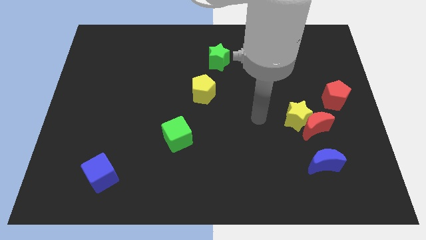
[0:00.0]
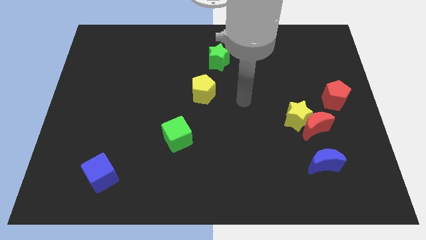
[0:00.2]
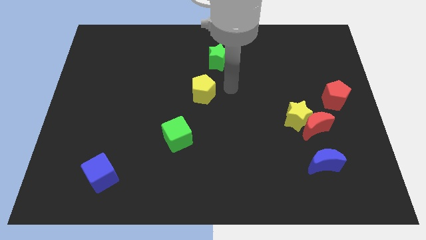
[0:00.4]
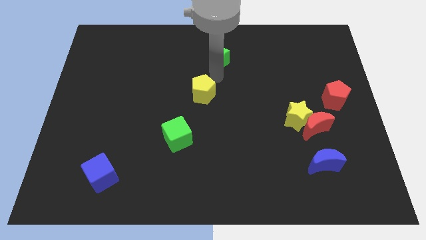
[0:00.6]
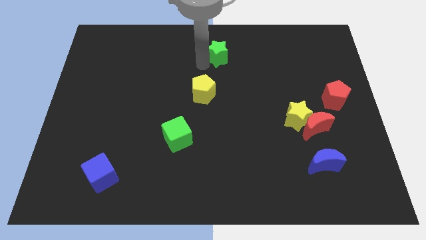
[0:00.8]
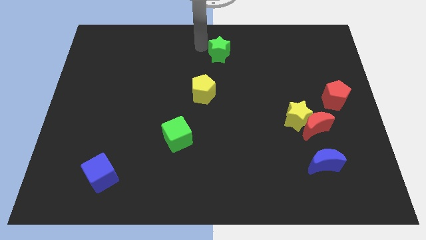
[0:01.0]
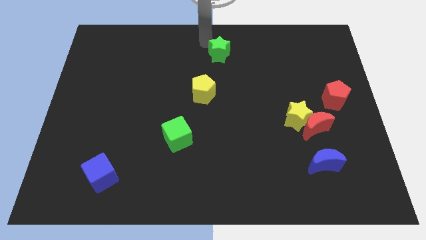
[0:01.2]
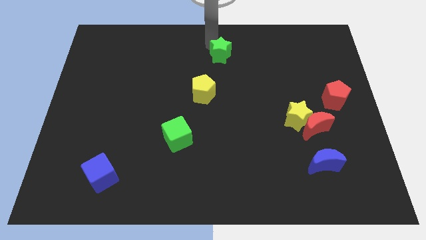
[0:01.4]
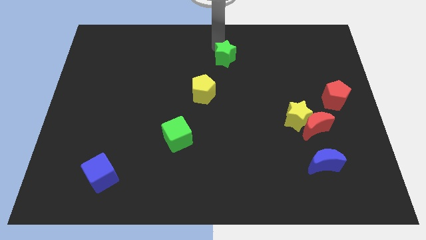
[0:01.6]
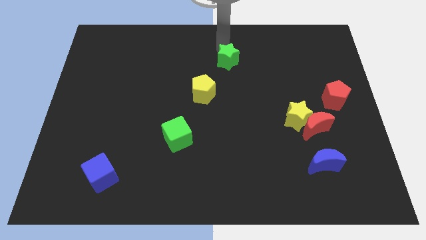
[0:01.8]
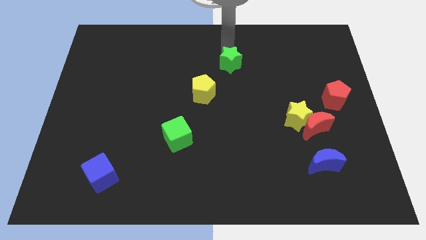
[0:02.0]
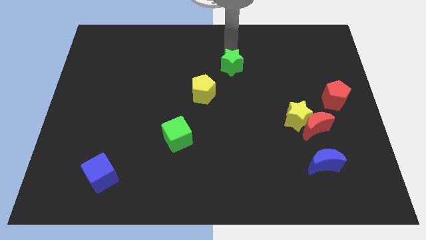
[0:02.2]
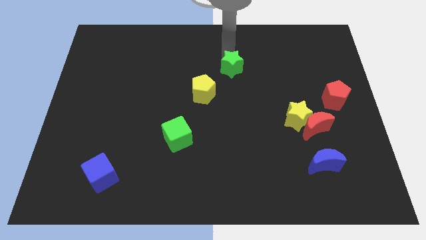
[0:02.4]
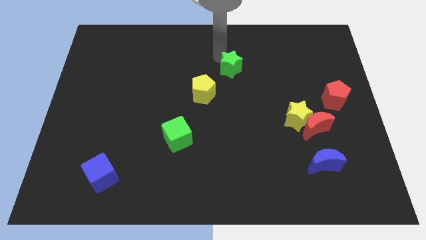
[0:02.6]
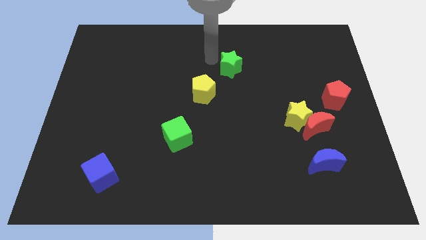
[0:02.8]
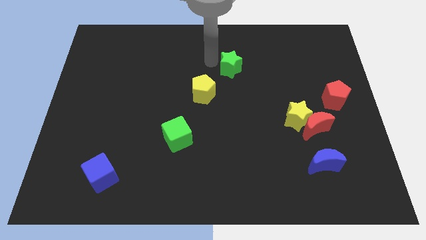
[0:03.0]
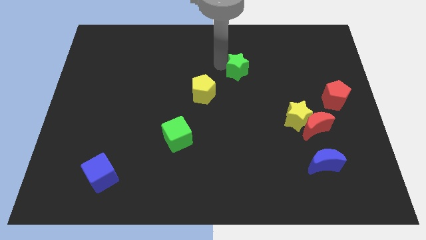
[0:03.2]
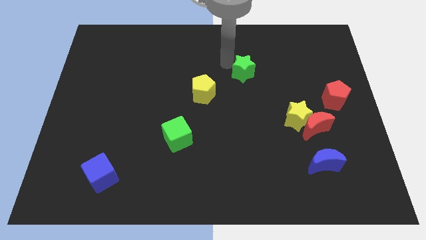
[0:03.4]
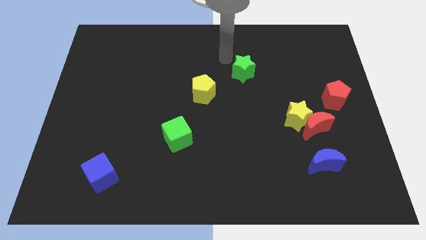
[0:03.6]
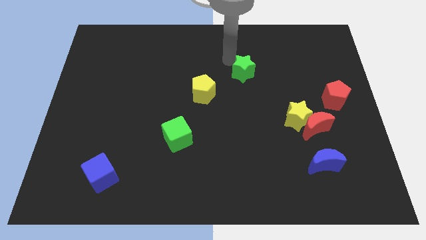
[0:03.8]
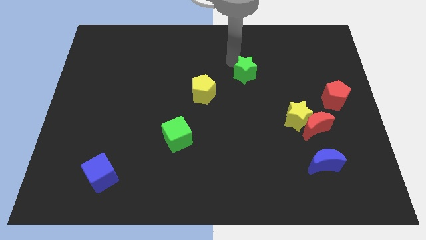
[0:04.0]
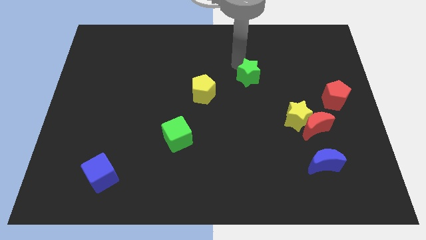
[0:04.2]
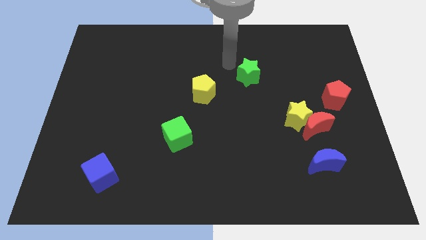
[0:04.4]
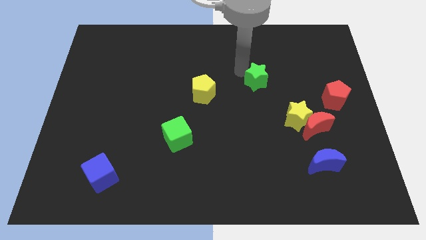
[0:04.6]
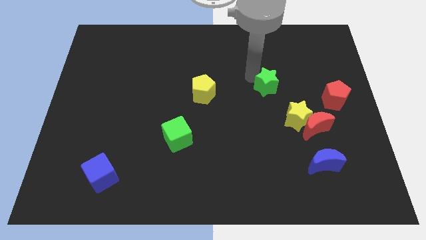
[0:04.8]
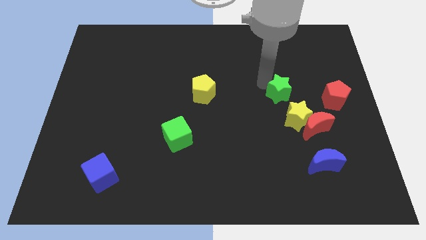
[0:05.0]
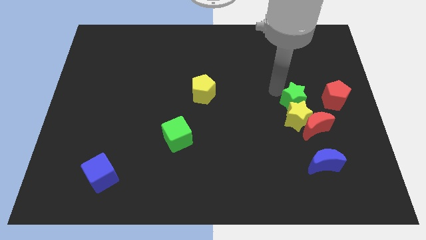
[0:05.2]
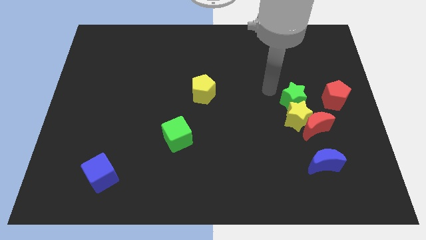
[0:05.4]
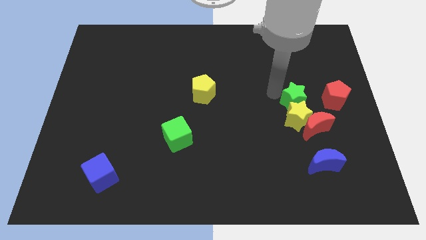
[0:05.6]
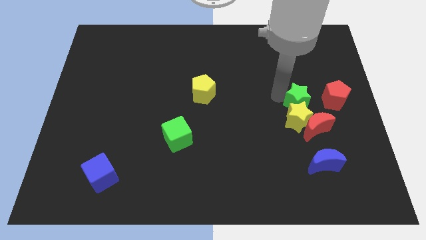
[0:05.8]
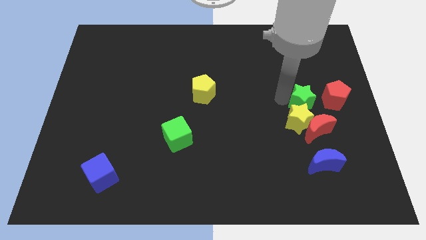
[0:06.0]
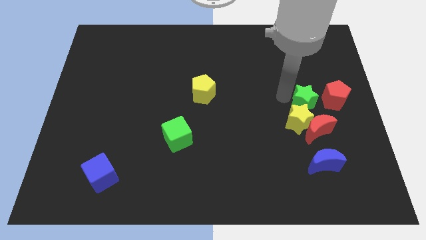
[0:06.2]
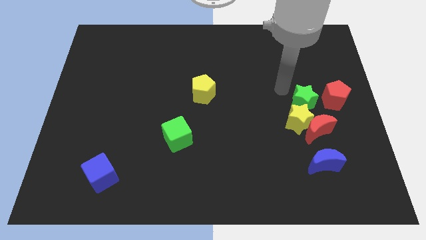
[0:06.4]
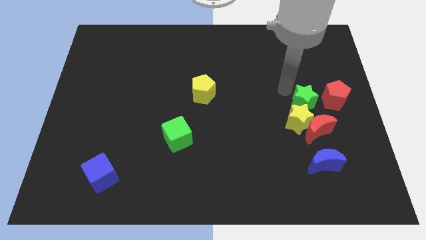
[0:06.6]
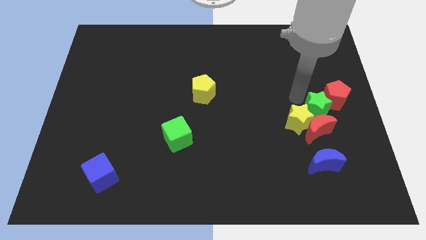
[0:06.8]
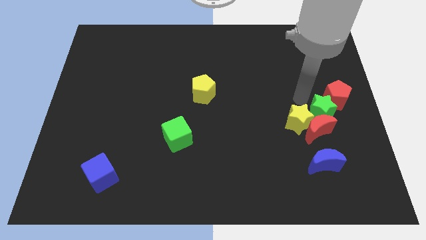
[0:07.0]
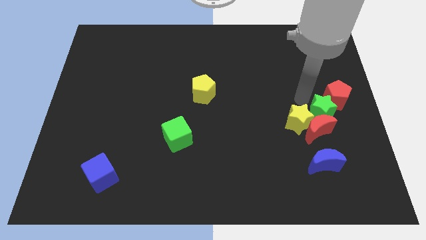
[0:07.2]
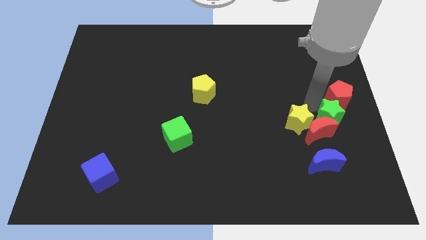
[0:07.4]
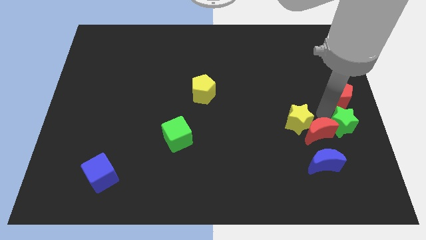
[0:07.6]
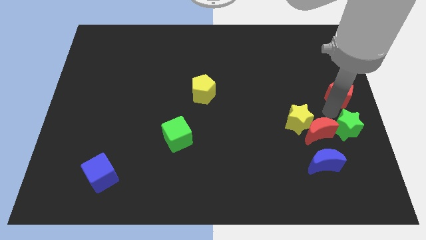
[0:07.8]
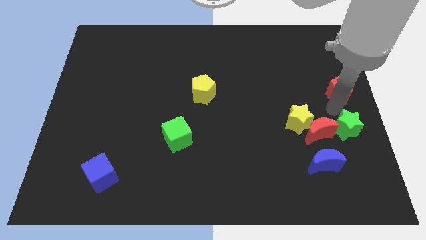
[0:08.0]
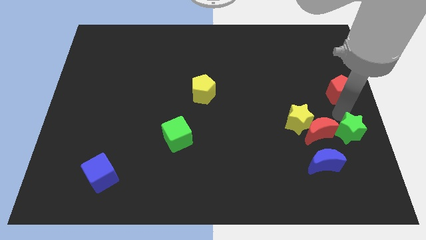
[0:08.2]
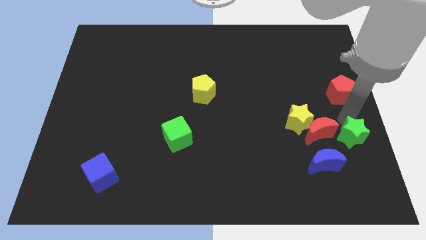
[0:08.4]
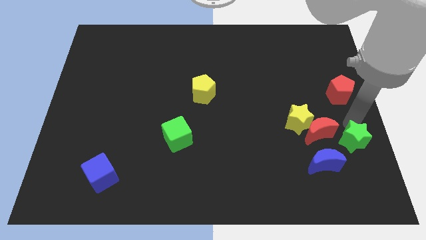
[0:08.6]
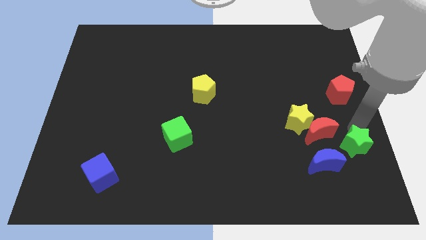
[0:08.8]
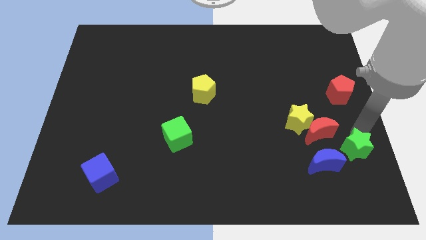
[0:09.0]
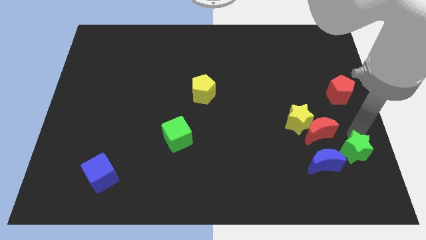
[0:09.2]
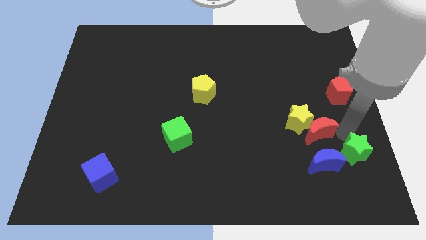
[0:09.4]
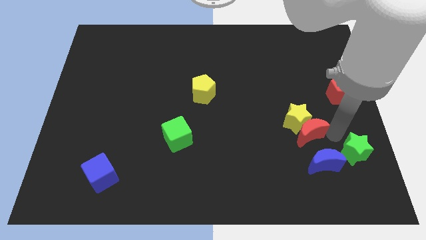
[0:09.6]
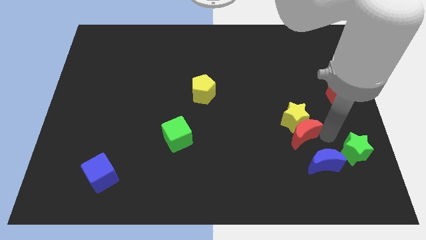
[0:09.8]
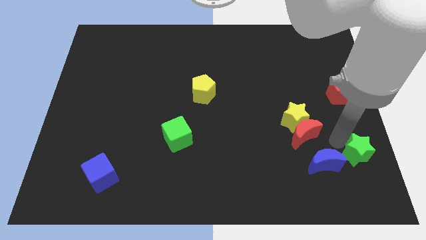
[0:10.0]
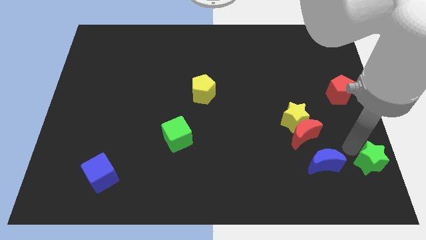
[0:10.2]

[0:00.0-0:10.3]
put the green star to the lower right corner

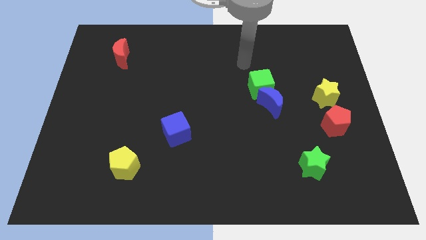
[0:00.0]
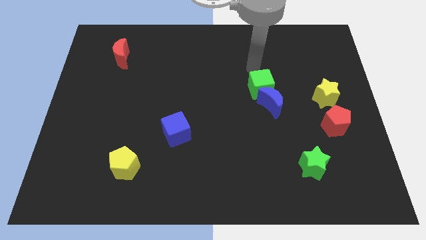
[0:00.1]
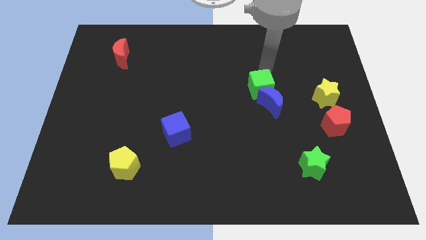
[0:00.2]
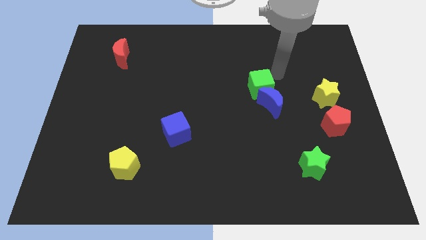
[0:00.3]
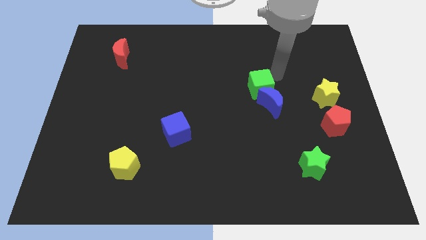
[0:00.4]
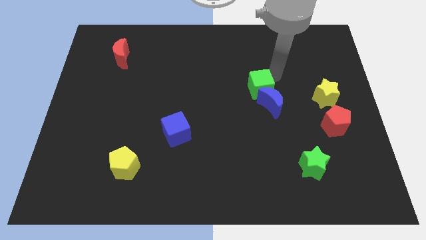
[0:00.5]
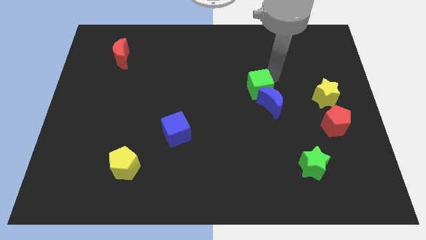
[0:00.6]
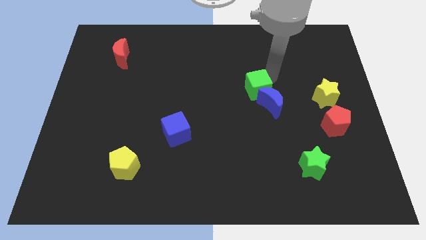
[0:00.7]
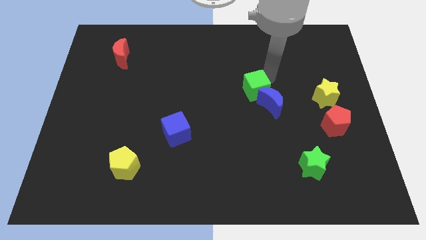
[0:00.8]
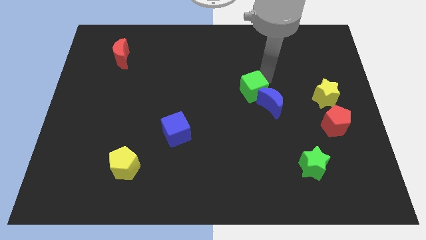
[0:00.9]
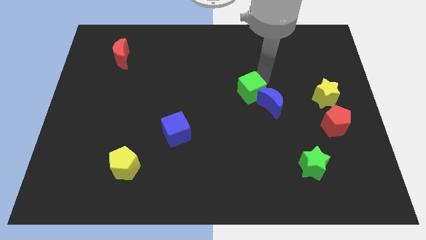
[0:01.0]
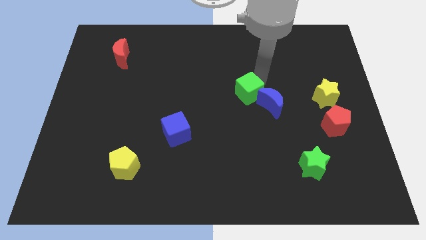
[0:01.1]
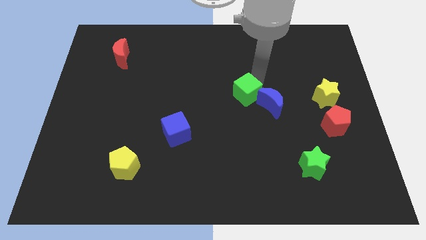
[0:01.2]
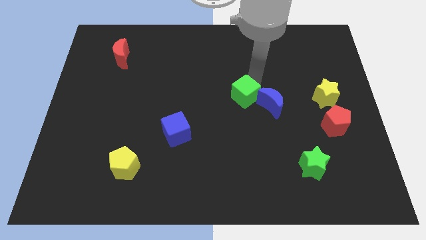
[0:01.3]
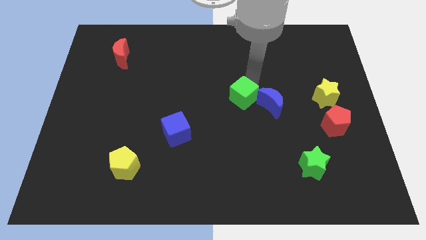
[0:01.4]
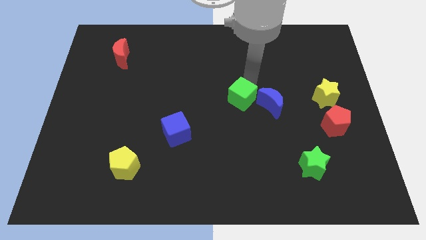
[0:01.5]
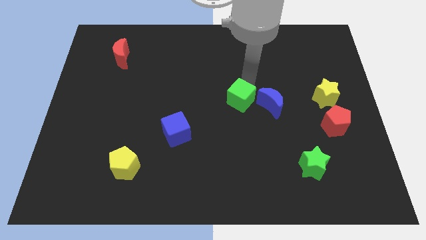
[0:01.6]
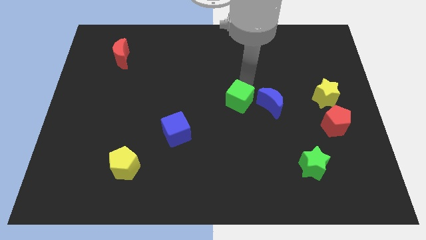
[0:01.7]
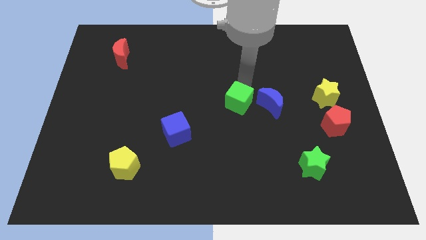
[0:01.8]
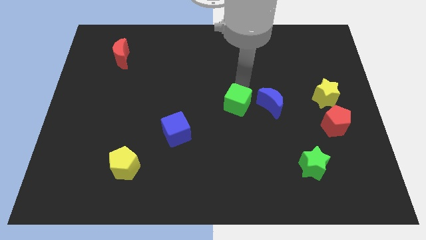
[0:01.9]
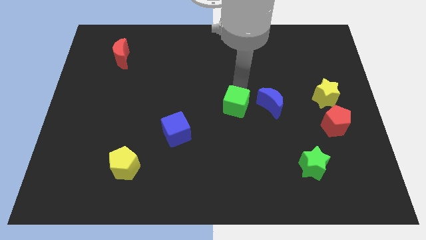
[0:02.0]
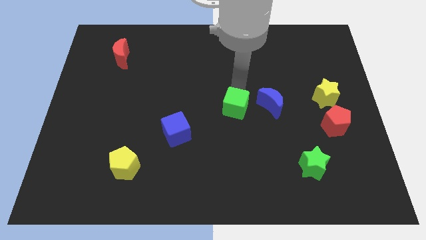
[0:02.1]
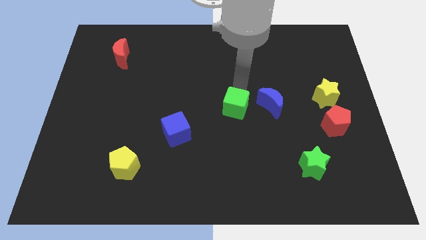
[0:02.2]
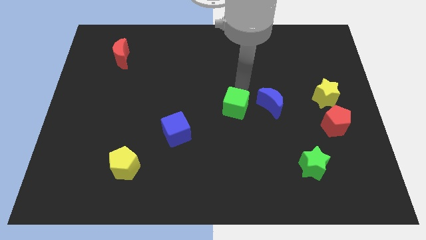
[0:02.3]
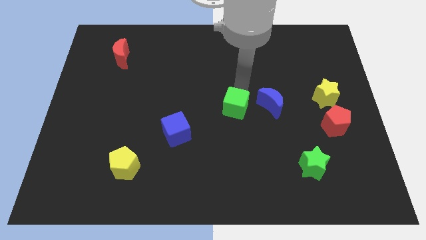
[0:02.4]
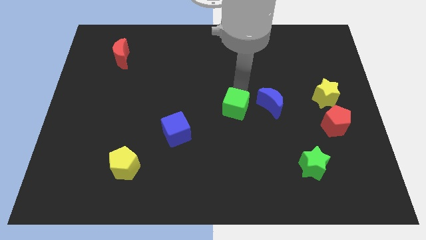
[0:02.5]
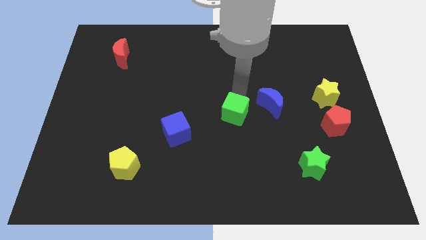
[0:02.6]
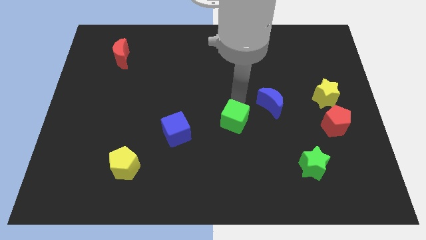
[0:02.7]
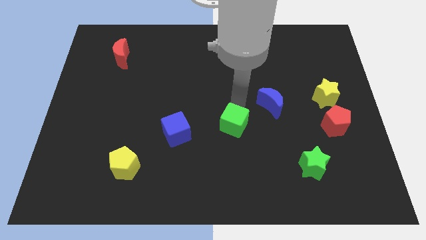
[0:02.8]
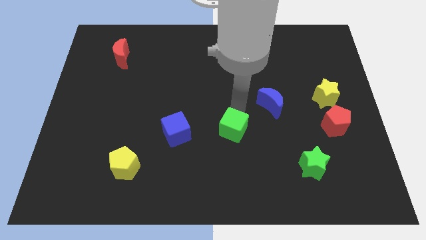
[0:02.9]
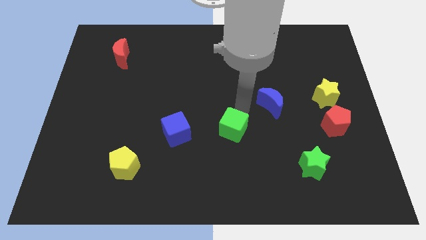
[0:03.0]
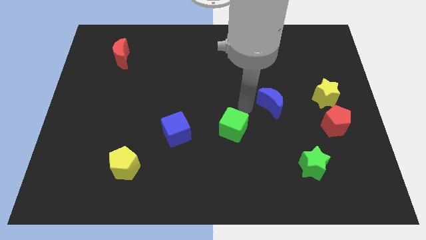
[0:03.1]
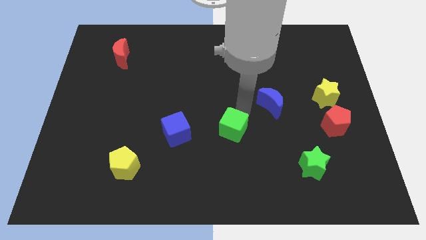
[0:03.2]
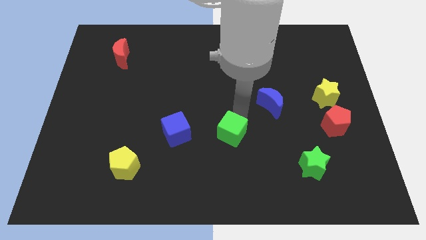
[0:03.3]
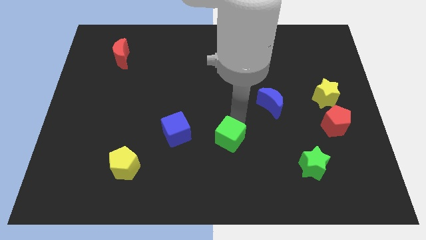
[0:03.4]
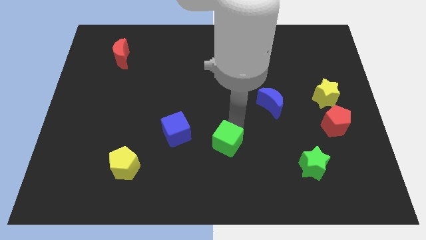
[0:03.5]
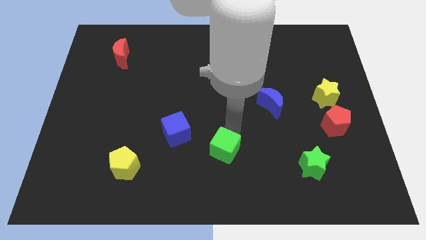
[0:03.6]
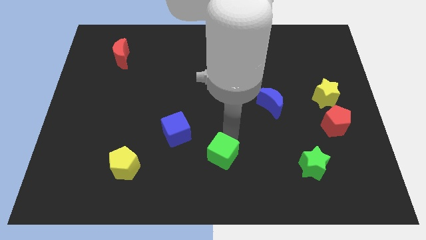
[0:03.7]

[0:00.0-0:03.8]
move the green cube to the bottom
